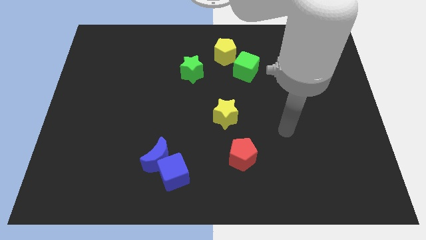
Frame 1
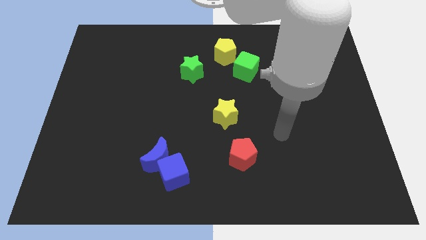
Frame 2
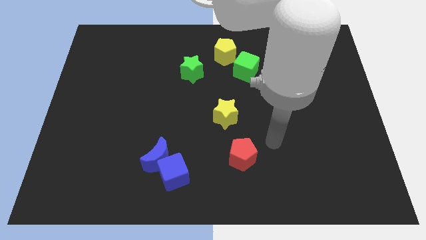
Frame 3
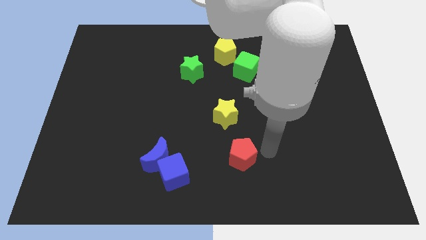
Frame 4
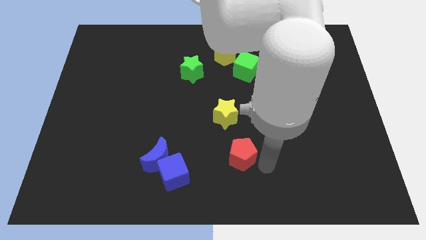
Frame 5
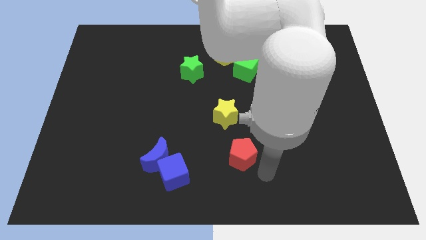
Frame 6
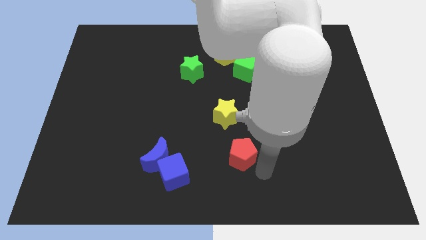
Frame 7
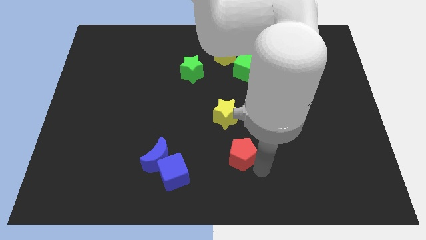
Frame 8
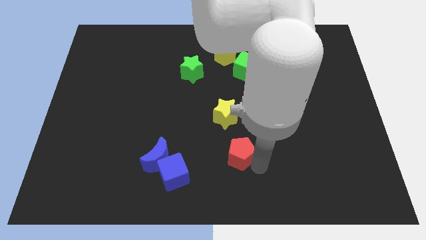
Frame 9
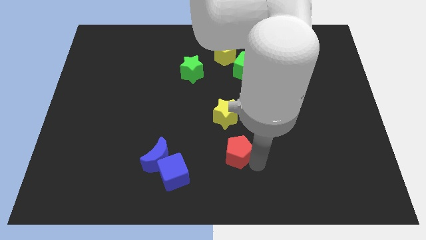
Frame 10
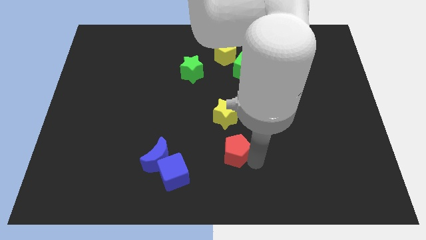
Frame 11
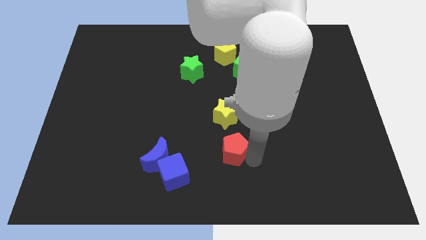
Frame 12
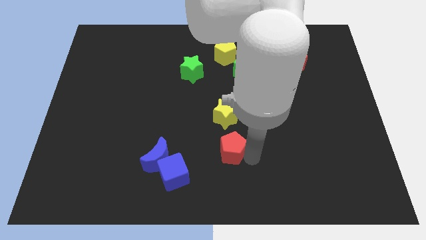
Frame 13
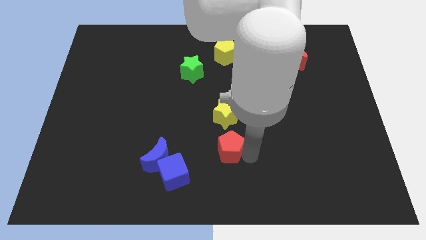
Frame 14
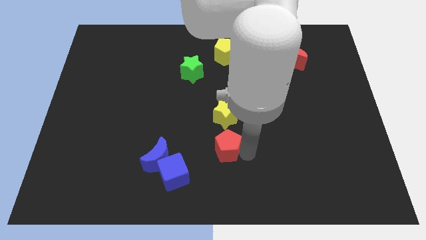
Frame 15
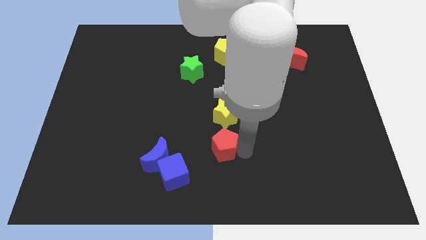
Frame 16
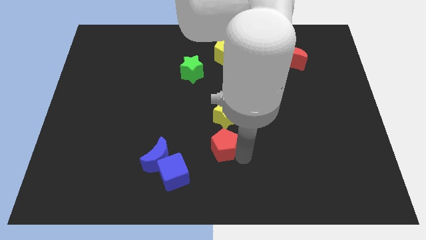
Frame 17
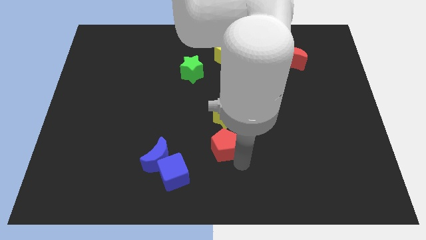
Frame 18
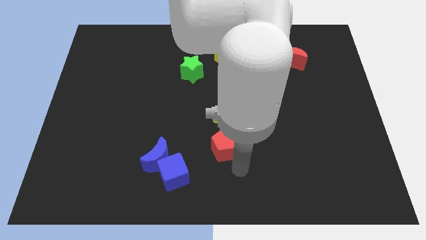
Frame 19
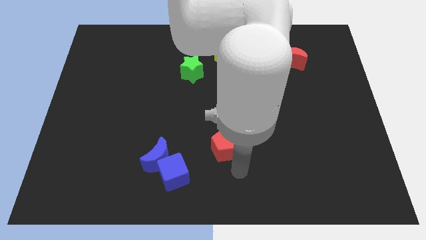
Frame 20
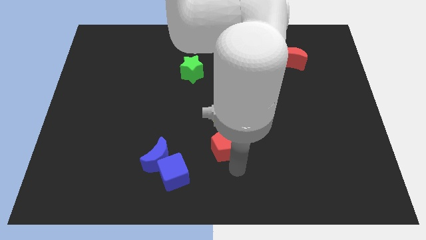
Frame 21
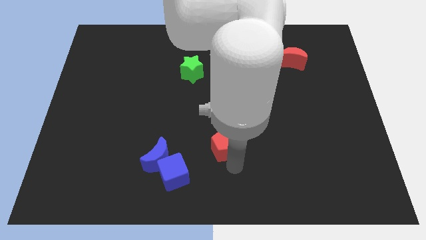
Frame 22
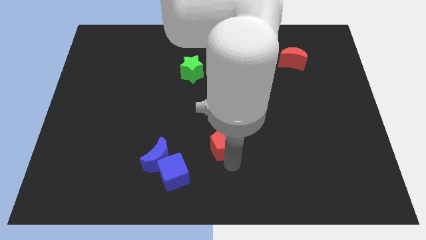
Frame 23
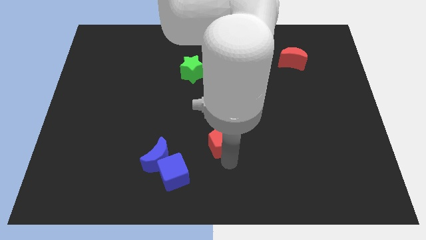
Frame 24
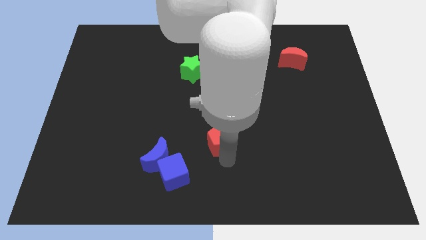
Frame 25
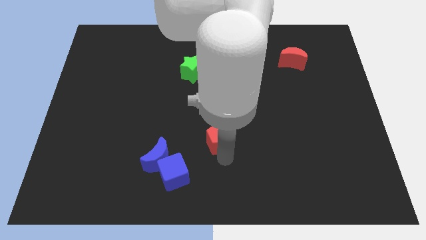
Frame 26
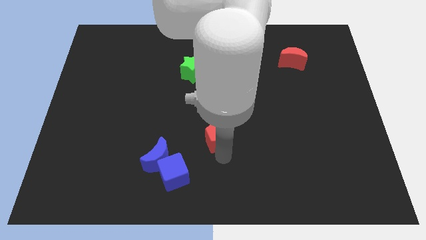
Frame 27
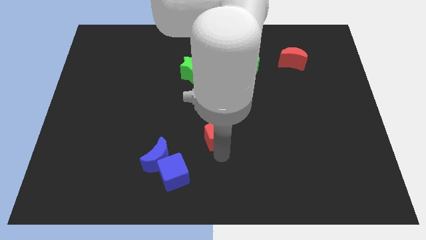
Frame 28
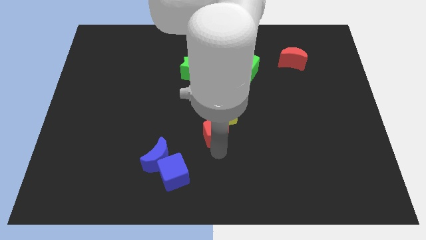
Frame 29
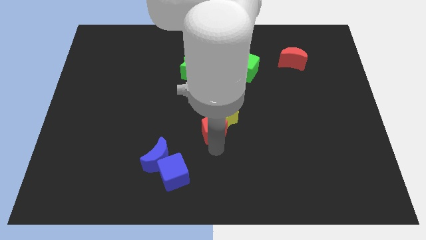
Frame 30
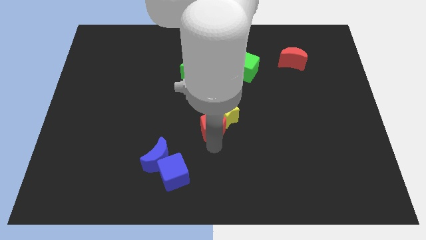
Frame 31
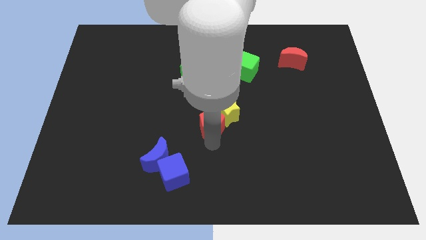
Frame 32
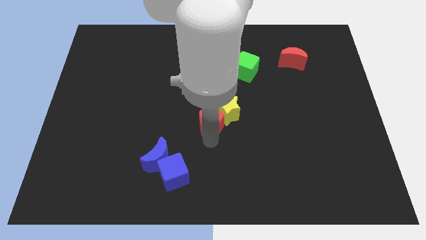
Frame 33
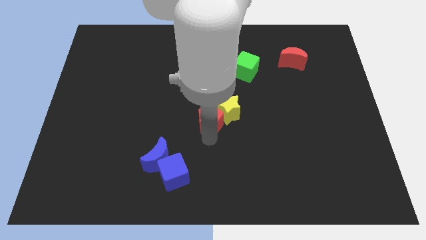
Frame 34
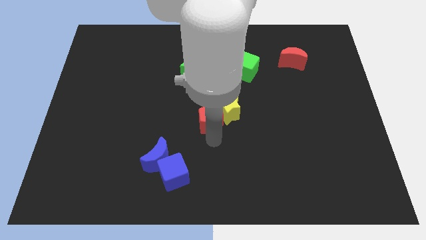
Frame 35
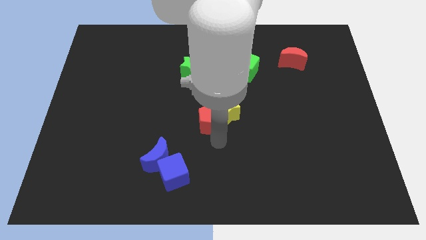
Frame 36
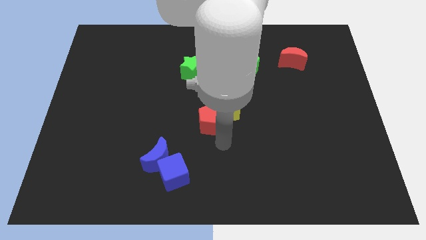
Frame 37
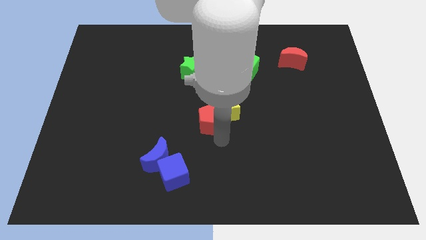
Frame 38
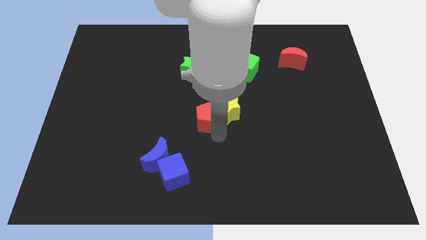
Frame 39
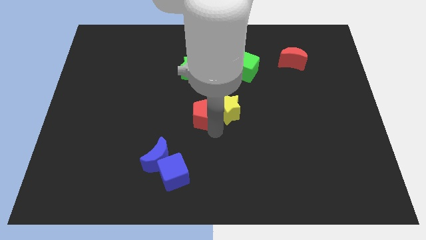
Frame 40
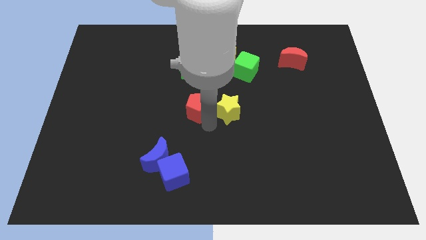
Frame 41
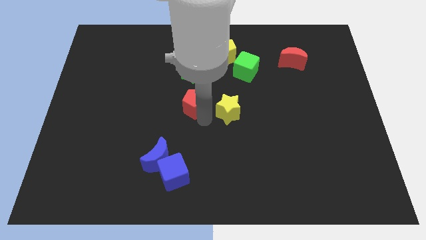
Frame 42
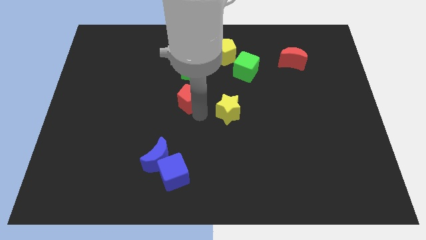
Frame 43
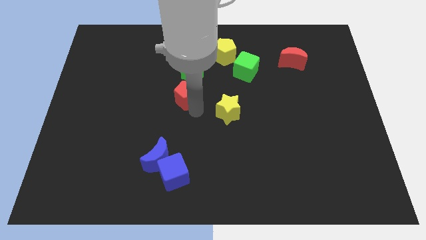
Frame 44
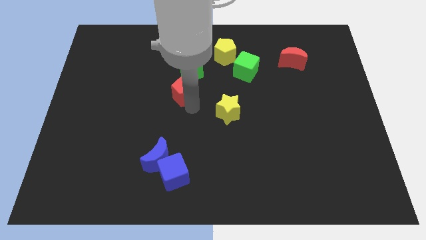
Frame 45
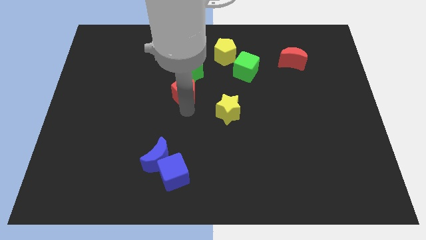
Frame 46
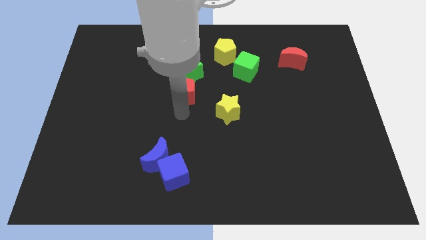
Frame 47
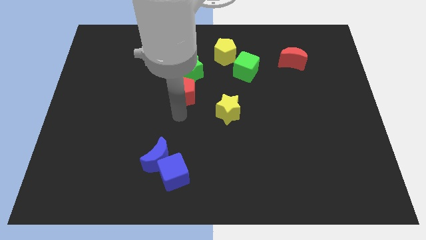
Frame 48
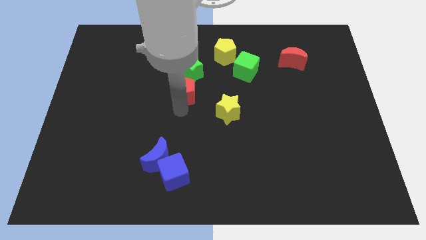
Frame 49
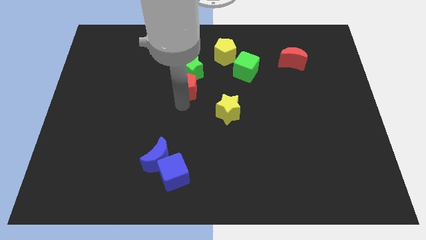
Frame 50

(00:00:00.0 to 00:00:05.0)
slide the red pentagon close to the green star

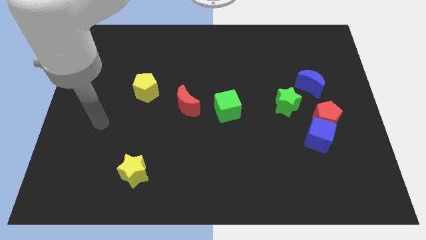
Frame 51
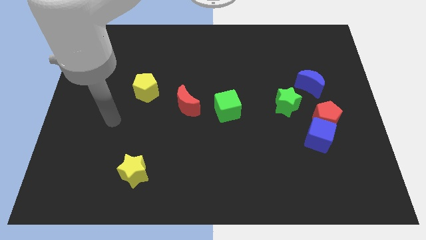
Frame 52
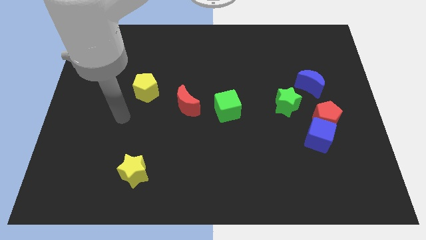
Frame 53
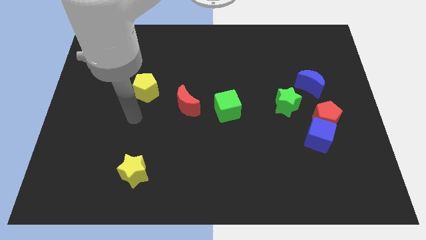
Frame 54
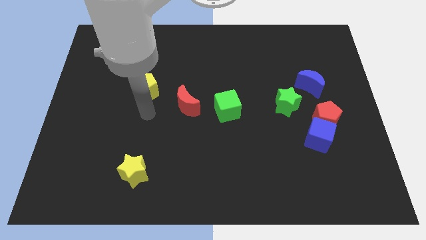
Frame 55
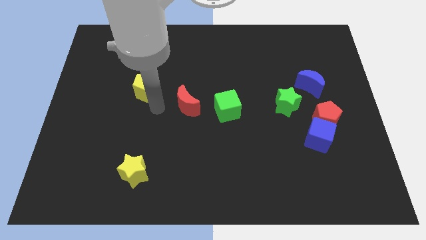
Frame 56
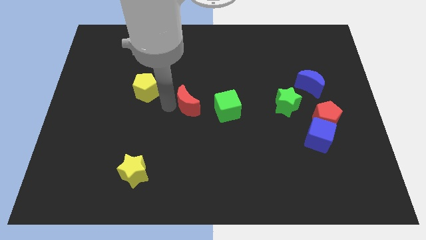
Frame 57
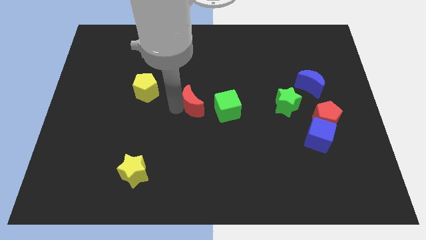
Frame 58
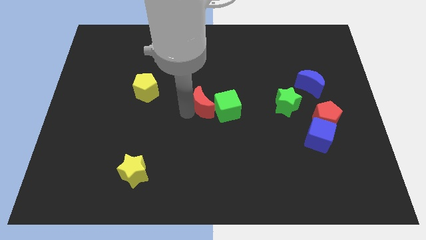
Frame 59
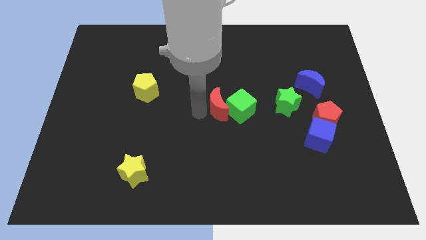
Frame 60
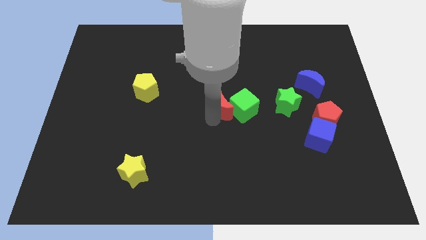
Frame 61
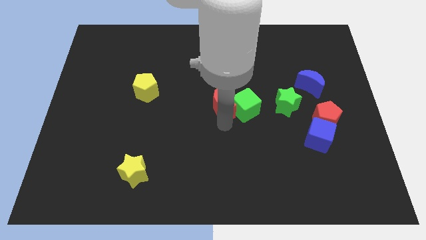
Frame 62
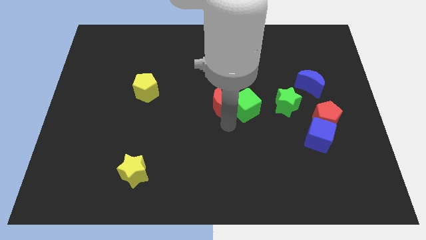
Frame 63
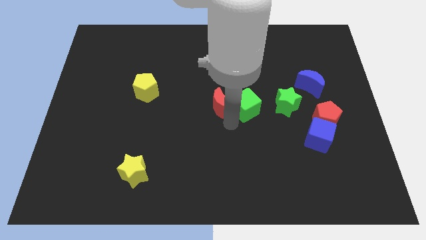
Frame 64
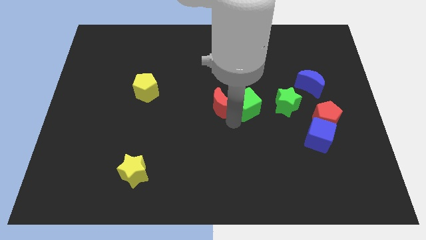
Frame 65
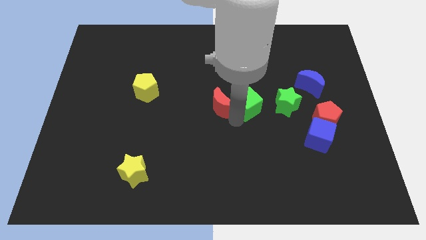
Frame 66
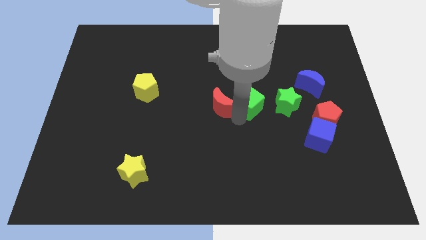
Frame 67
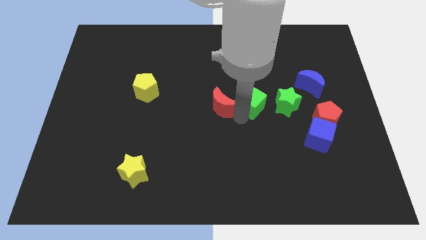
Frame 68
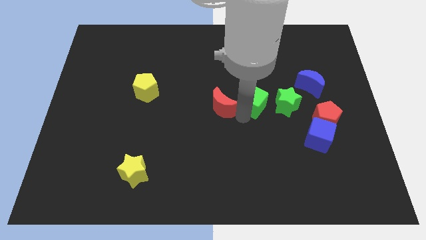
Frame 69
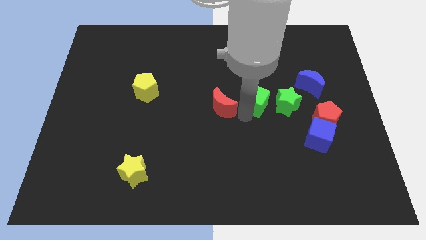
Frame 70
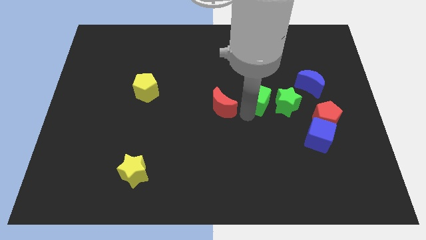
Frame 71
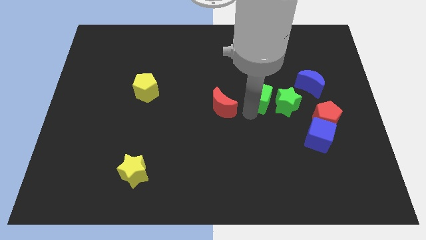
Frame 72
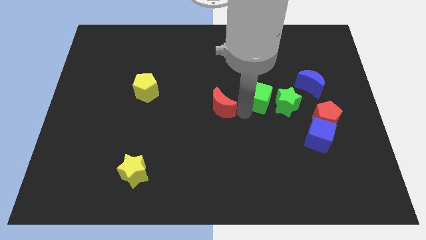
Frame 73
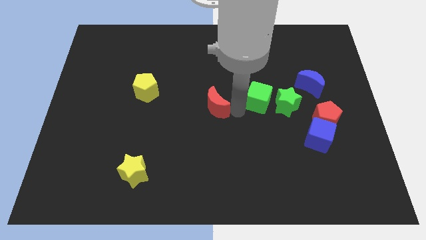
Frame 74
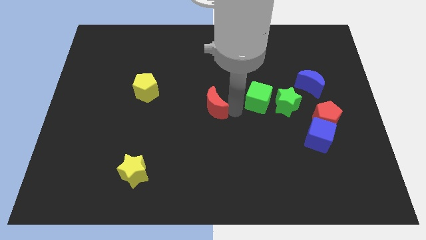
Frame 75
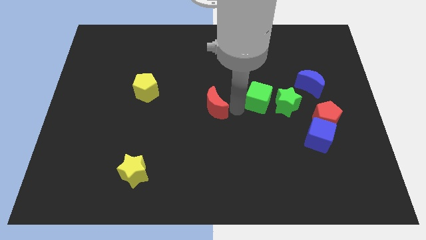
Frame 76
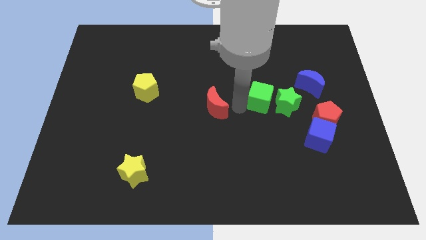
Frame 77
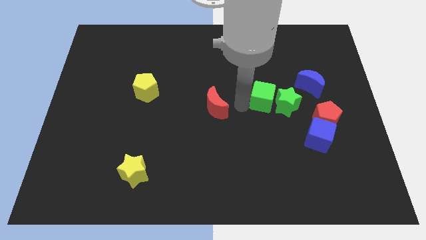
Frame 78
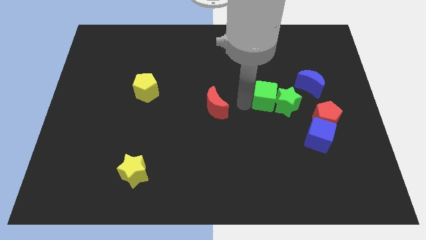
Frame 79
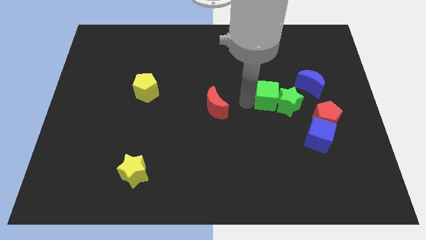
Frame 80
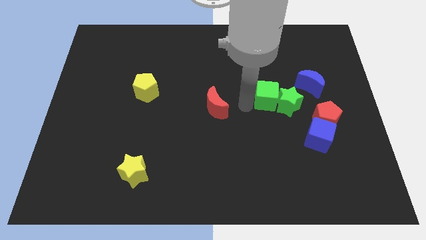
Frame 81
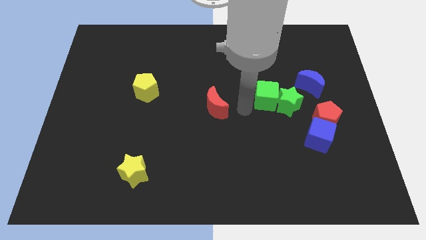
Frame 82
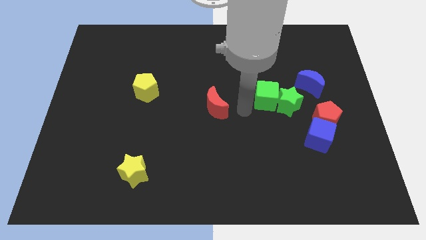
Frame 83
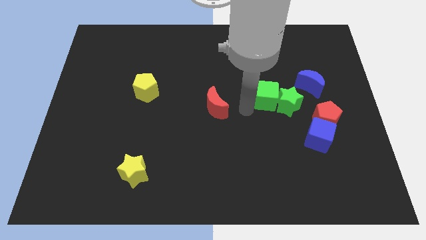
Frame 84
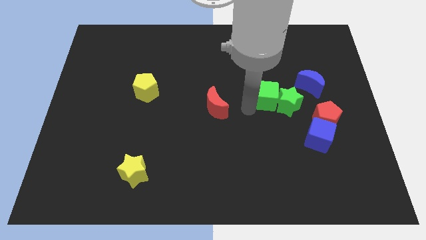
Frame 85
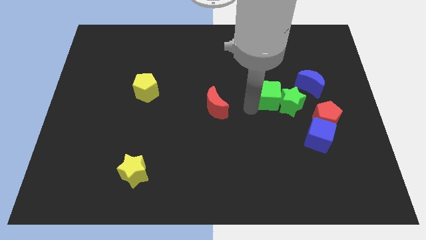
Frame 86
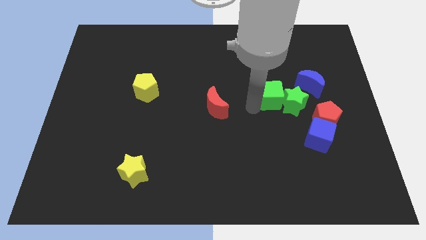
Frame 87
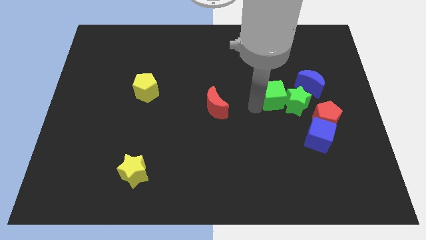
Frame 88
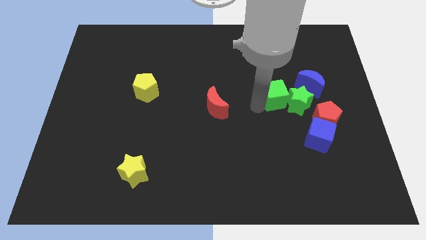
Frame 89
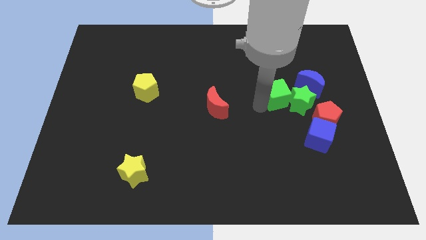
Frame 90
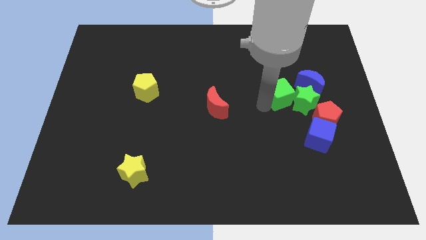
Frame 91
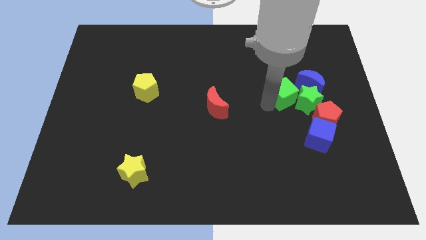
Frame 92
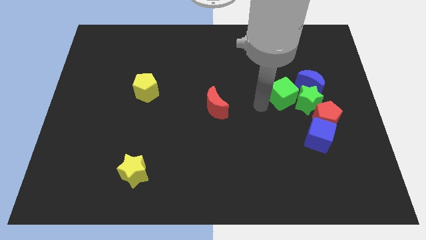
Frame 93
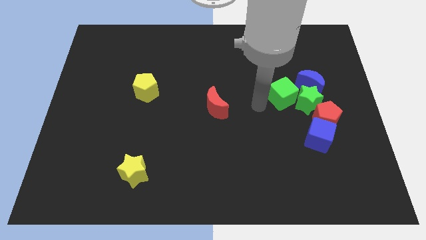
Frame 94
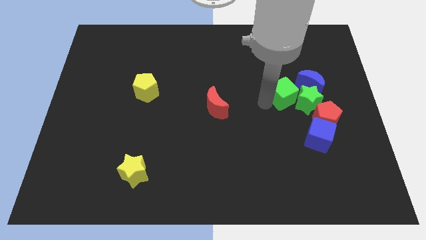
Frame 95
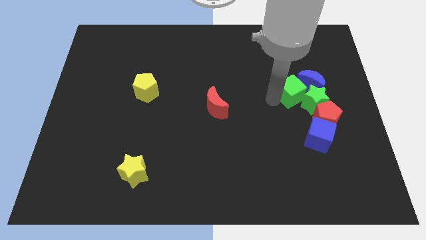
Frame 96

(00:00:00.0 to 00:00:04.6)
push the green cube next to the blue moon
